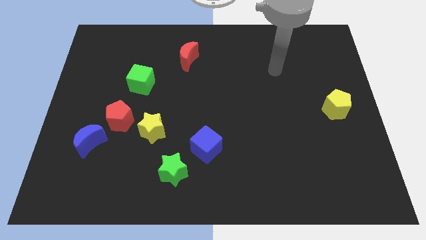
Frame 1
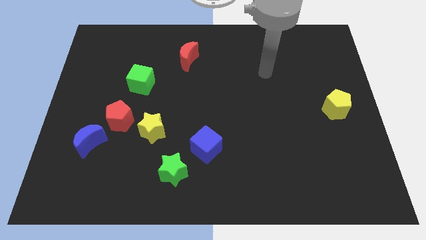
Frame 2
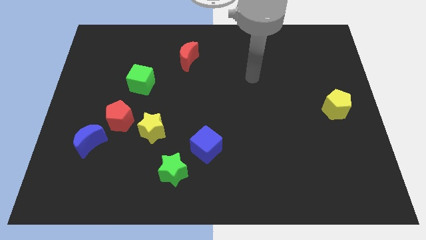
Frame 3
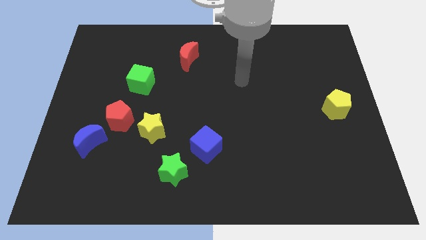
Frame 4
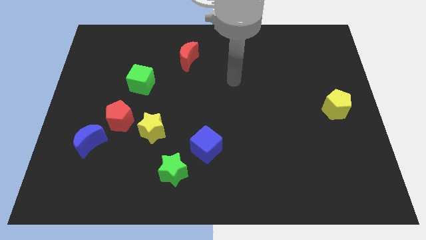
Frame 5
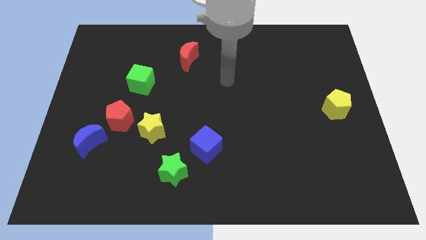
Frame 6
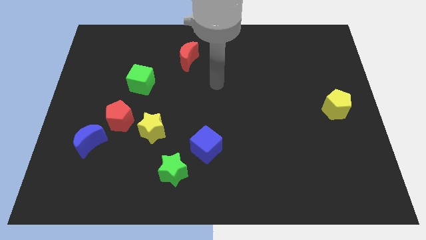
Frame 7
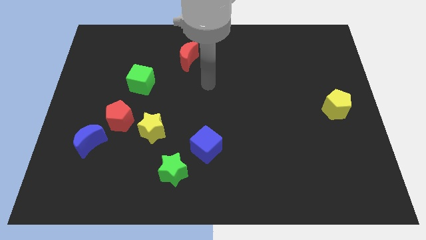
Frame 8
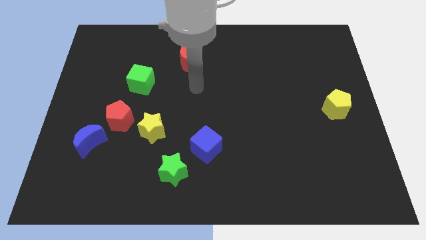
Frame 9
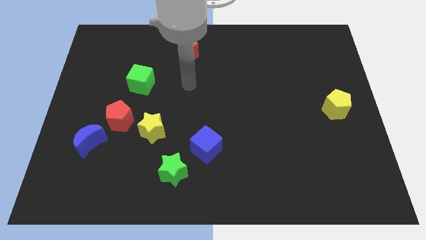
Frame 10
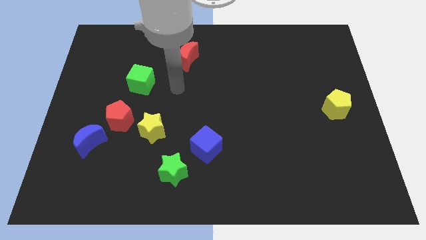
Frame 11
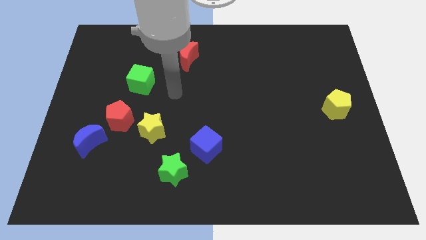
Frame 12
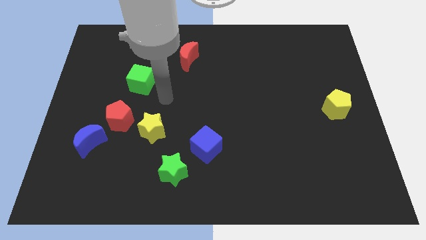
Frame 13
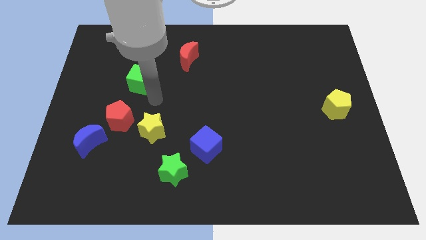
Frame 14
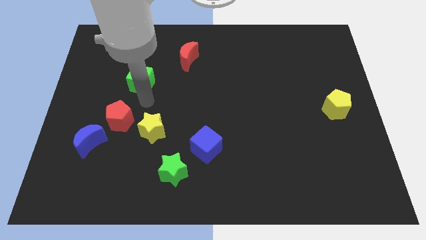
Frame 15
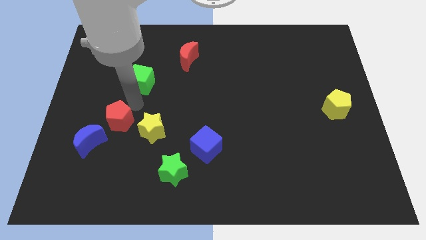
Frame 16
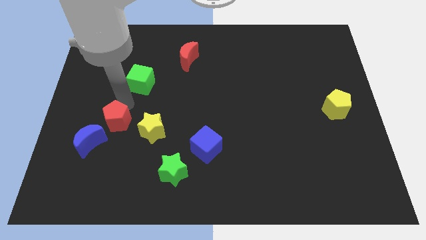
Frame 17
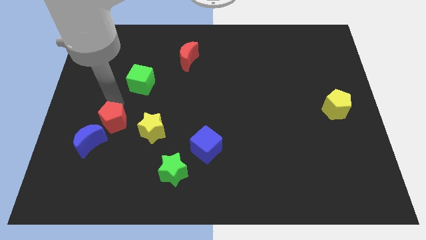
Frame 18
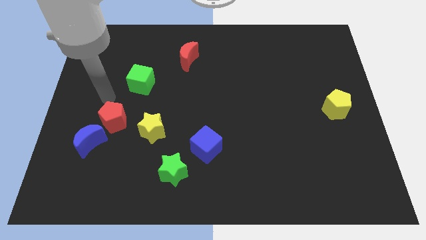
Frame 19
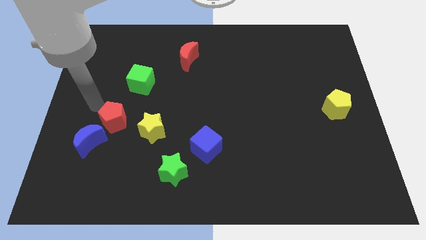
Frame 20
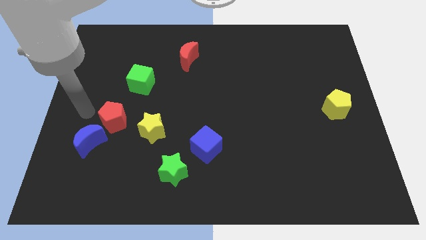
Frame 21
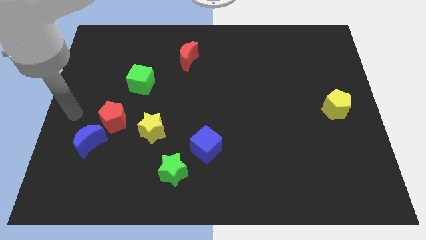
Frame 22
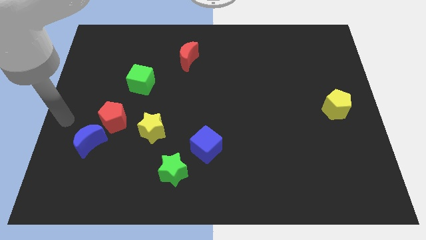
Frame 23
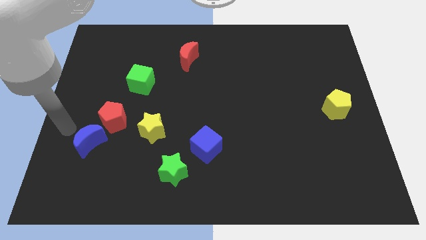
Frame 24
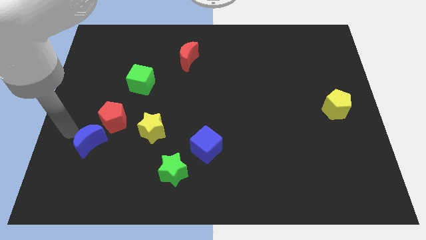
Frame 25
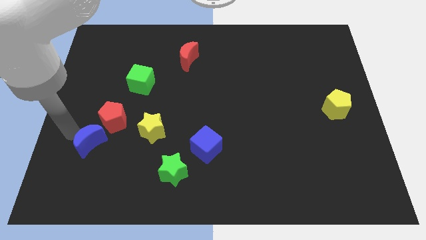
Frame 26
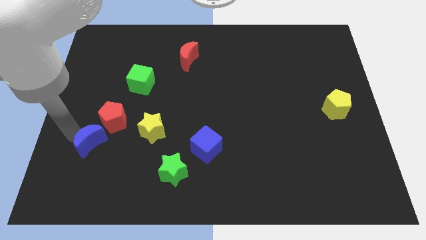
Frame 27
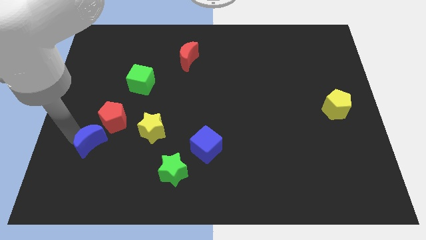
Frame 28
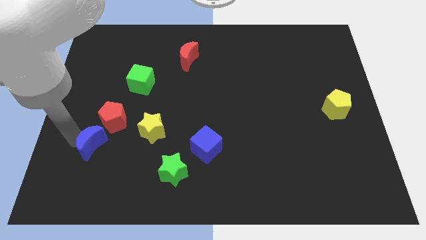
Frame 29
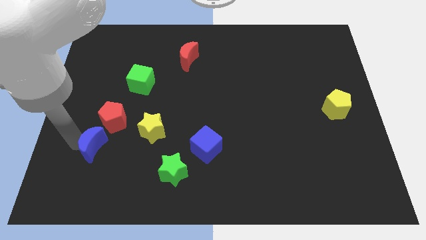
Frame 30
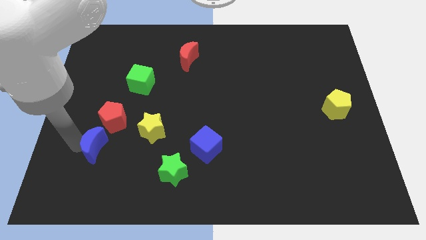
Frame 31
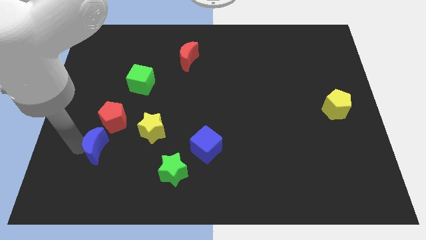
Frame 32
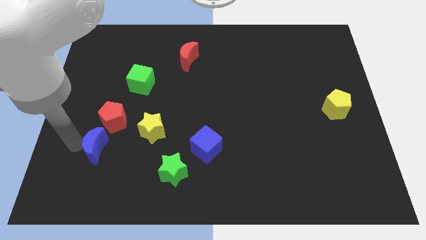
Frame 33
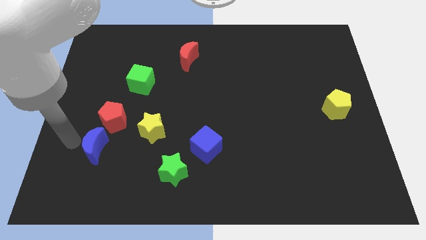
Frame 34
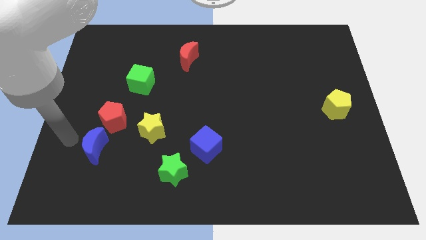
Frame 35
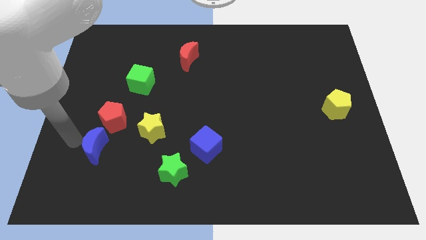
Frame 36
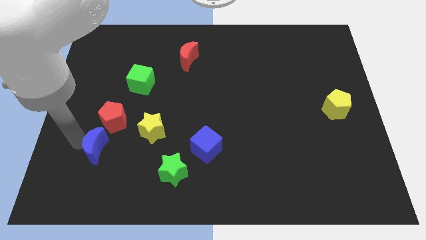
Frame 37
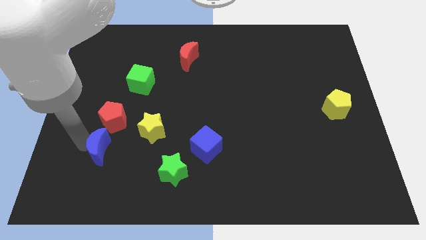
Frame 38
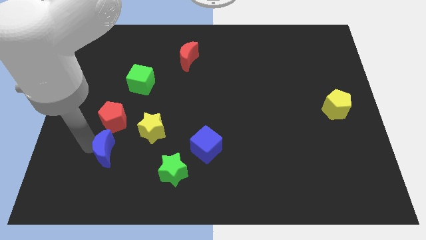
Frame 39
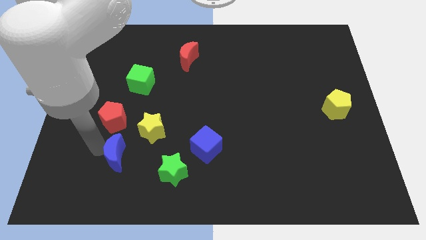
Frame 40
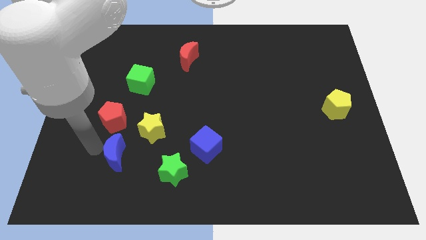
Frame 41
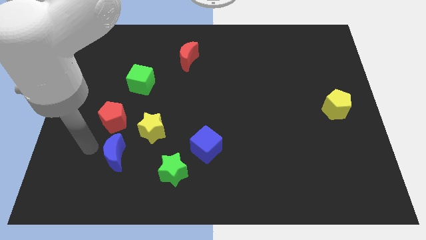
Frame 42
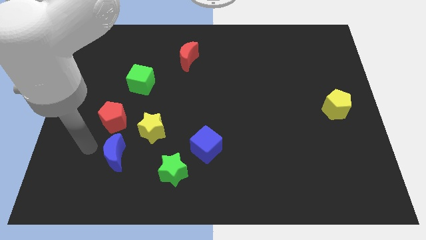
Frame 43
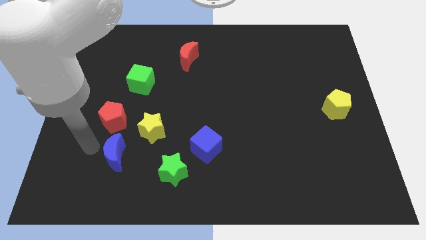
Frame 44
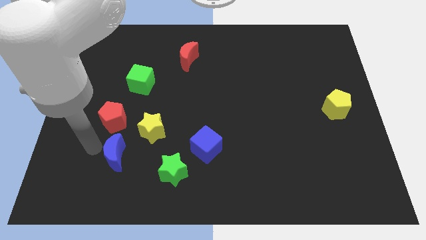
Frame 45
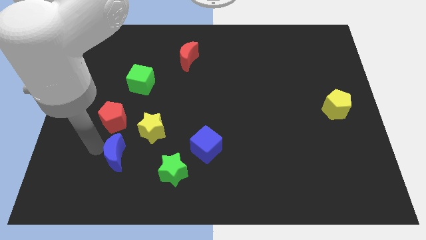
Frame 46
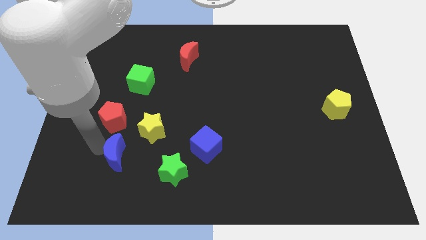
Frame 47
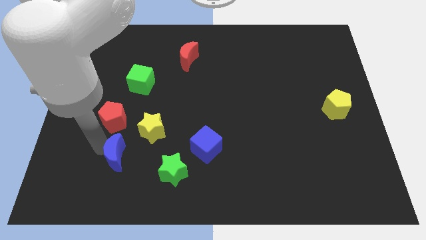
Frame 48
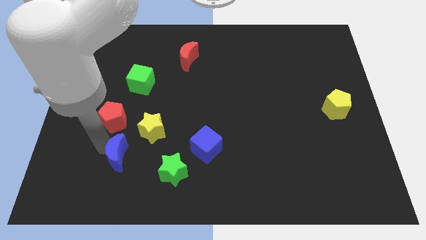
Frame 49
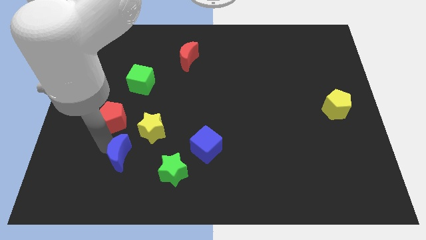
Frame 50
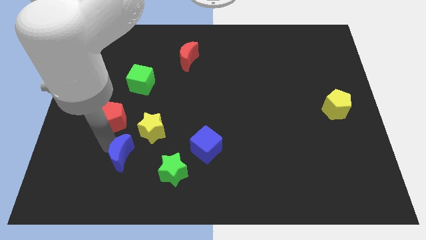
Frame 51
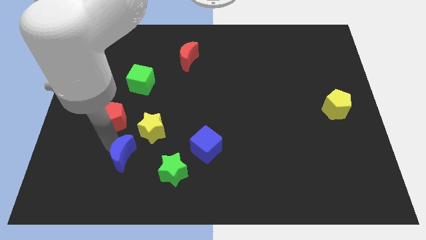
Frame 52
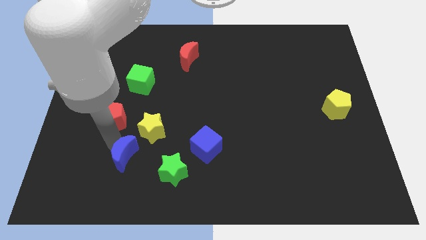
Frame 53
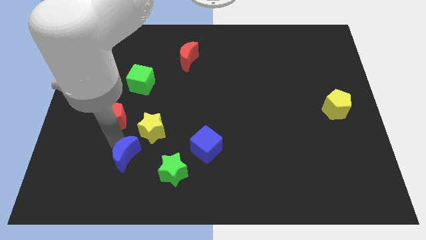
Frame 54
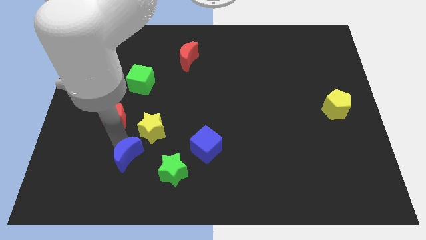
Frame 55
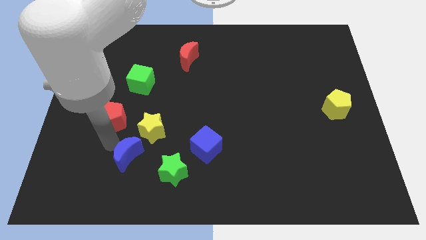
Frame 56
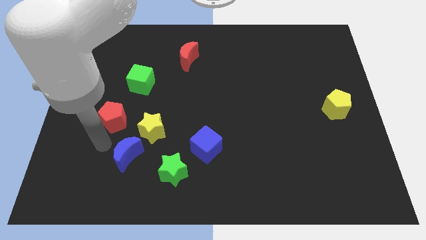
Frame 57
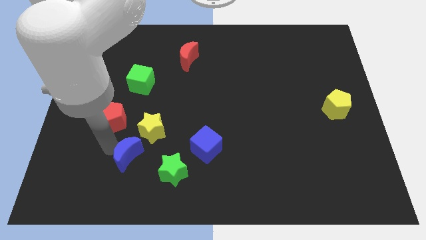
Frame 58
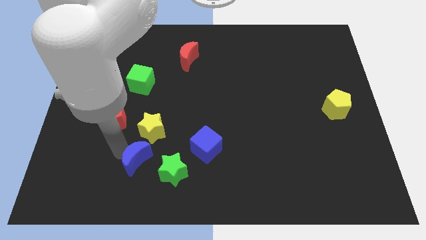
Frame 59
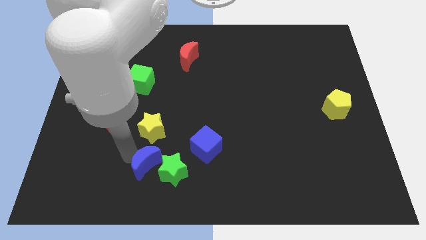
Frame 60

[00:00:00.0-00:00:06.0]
move the blue moon to the green star

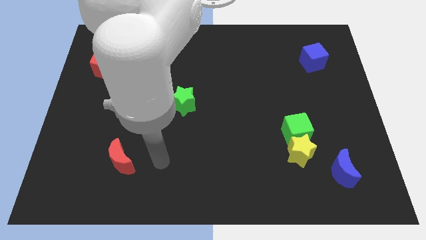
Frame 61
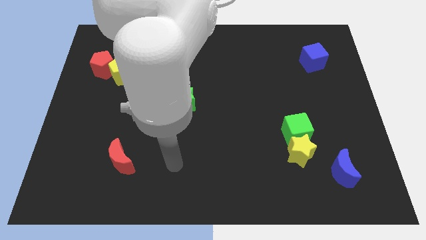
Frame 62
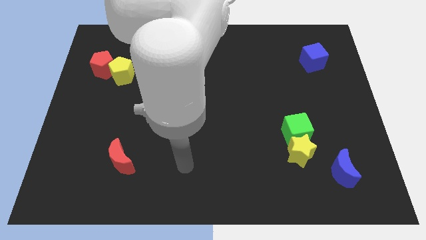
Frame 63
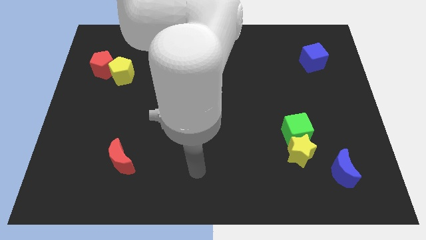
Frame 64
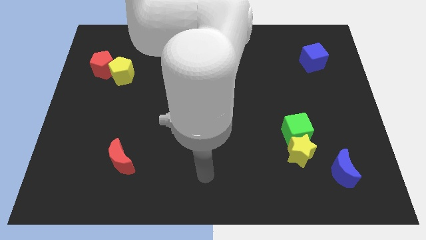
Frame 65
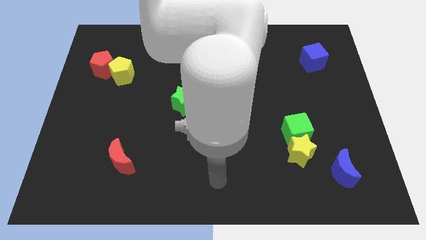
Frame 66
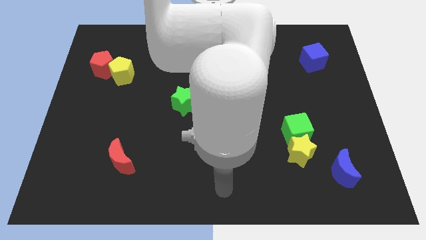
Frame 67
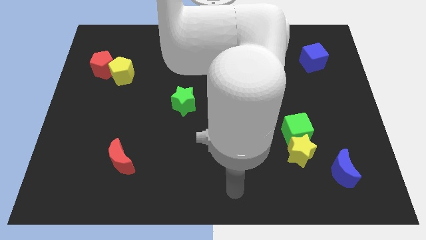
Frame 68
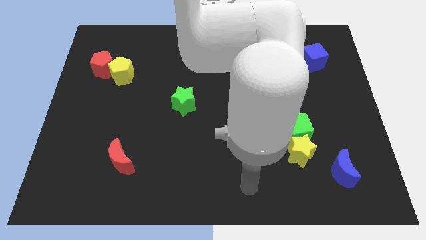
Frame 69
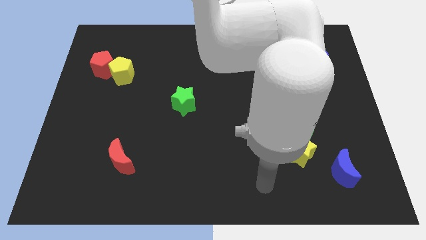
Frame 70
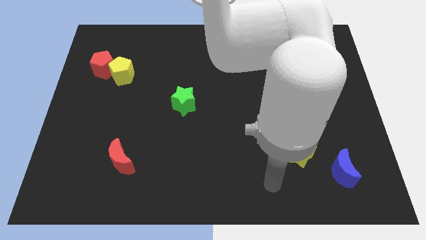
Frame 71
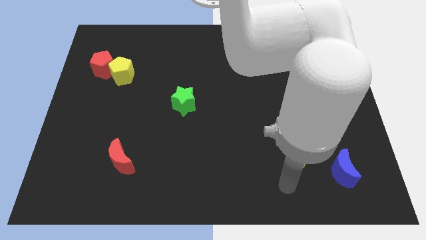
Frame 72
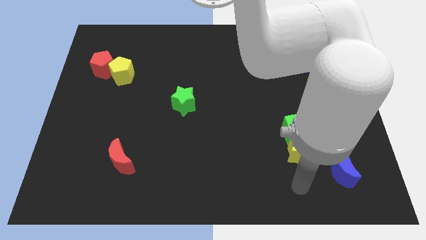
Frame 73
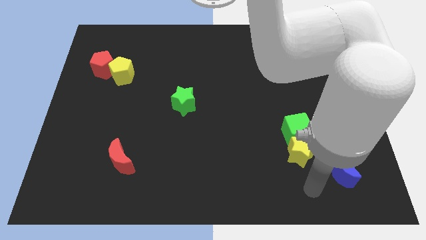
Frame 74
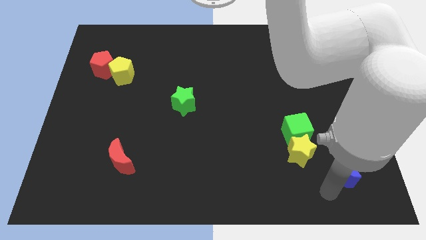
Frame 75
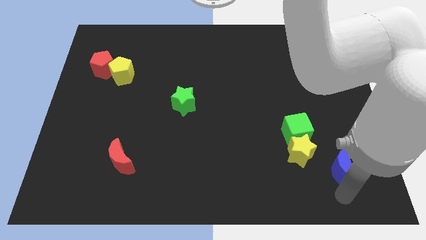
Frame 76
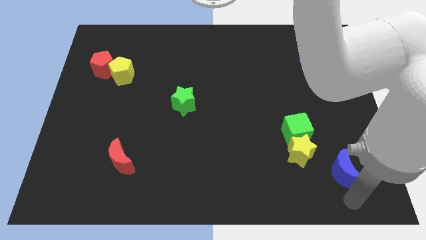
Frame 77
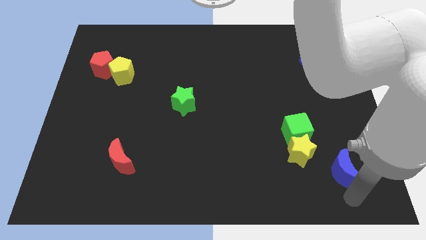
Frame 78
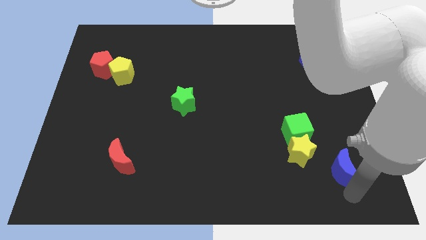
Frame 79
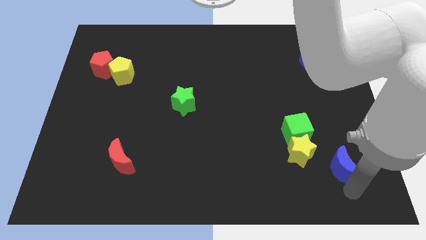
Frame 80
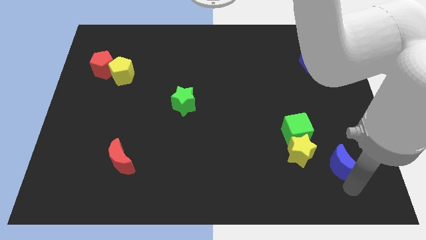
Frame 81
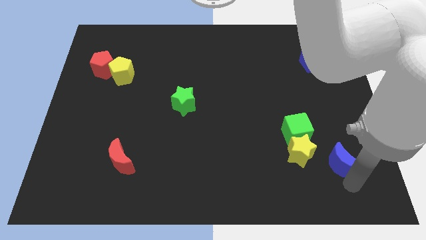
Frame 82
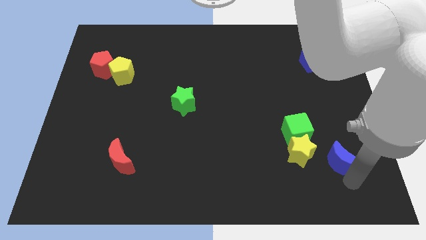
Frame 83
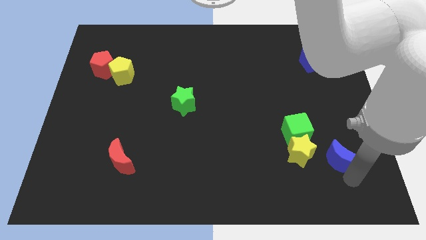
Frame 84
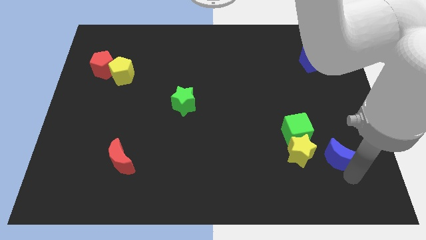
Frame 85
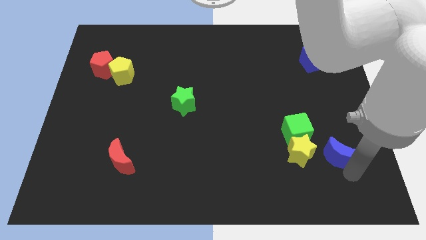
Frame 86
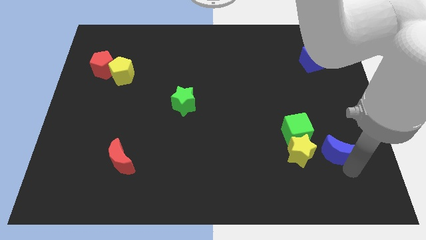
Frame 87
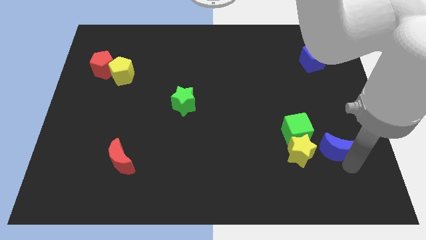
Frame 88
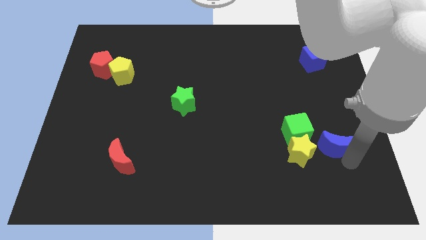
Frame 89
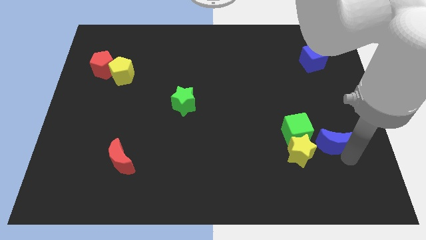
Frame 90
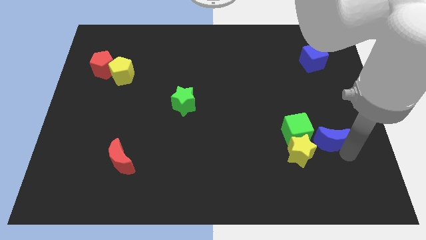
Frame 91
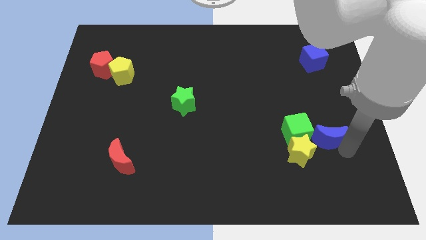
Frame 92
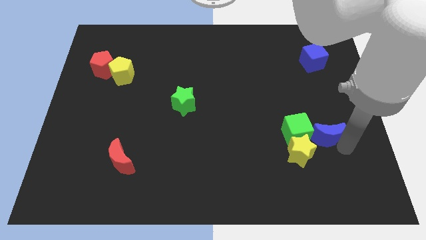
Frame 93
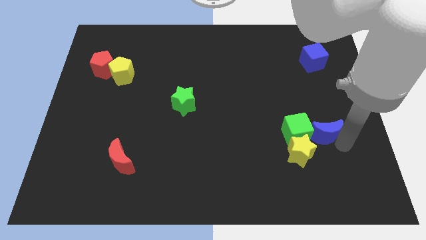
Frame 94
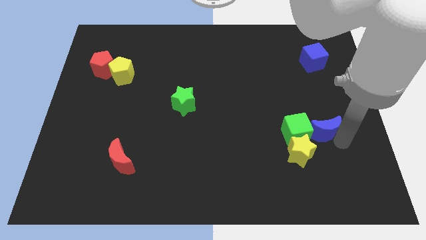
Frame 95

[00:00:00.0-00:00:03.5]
slide the blue moon towards the green cube
